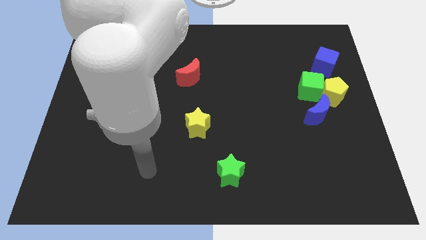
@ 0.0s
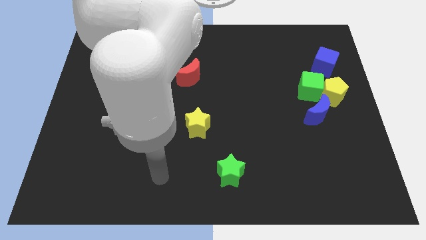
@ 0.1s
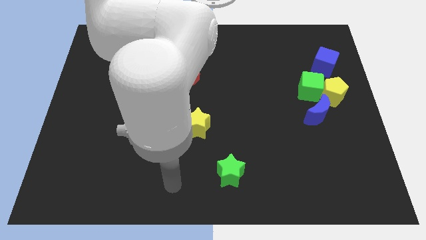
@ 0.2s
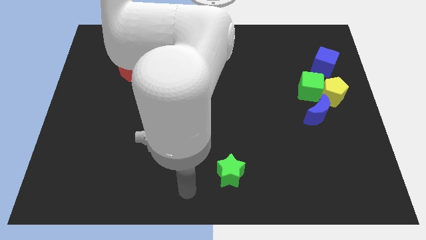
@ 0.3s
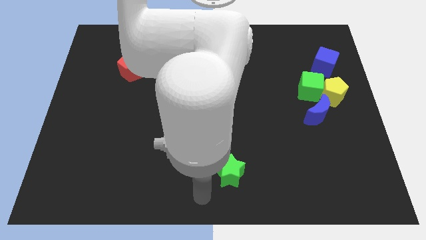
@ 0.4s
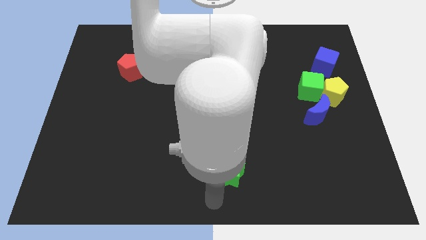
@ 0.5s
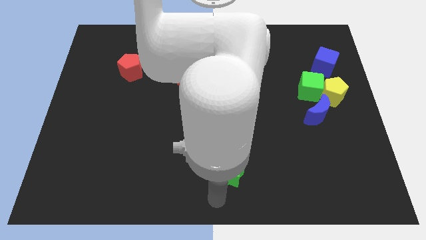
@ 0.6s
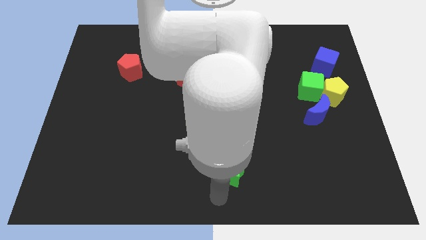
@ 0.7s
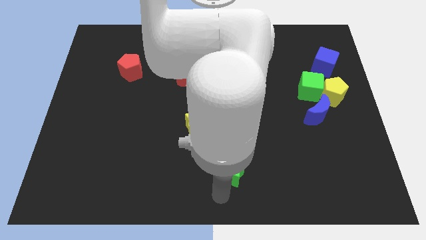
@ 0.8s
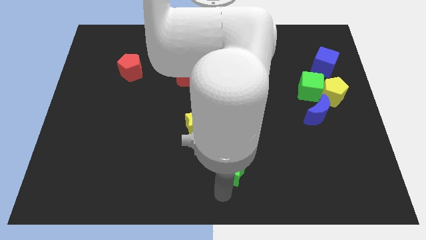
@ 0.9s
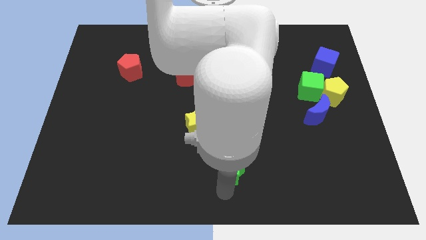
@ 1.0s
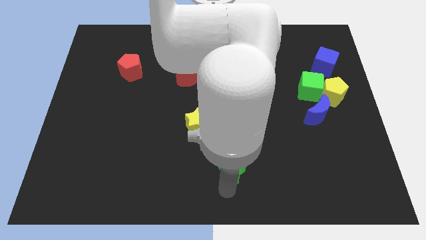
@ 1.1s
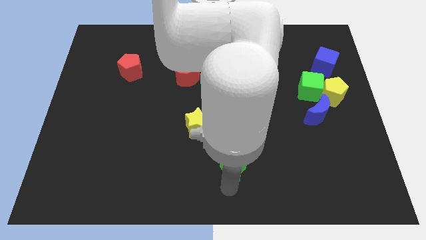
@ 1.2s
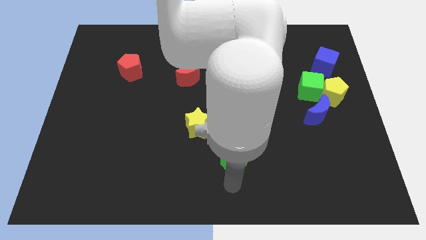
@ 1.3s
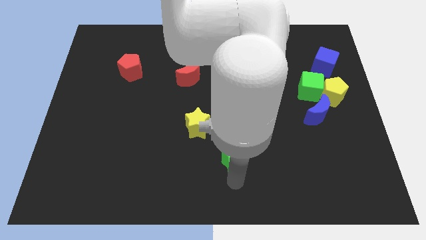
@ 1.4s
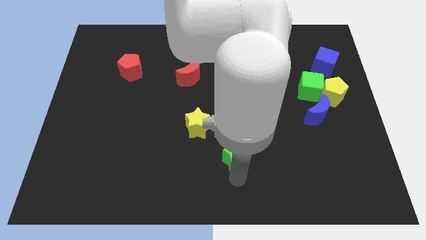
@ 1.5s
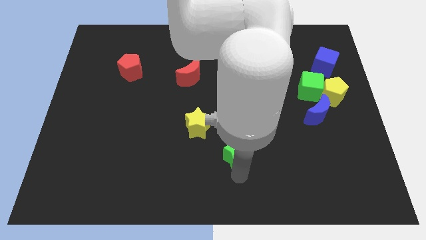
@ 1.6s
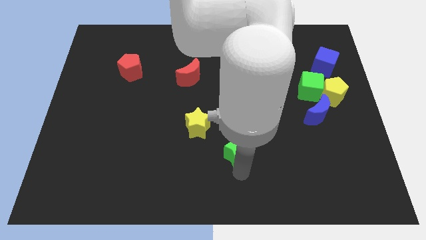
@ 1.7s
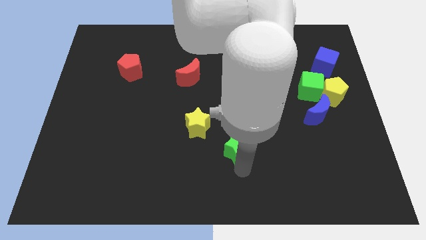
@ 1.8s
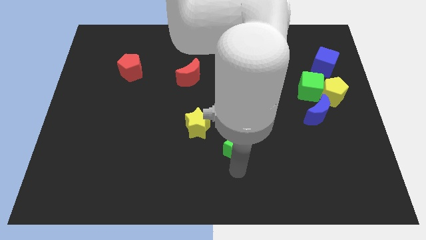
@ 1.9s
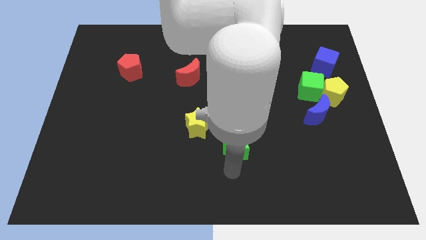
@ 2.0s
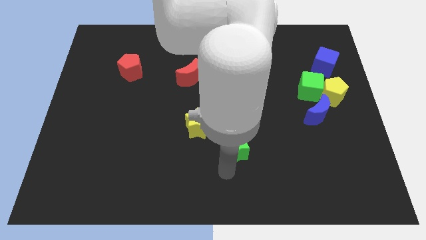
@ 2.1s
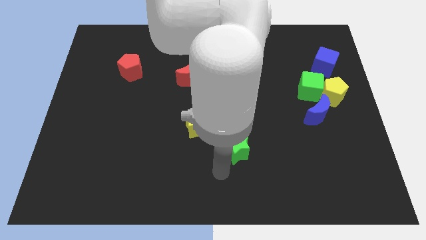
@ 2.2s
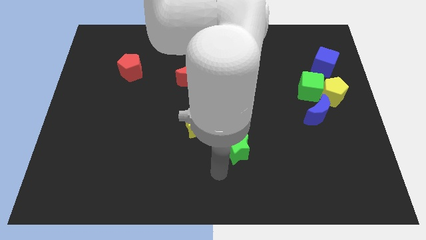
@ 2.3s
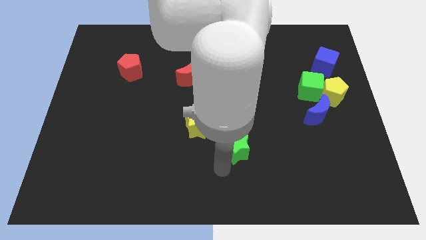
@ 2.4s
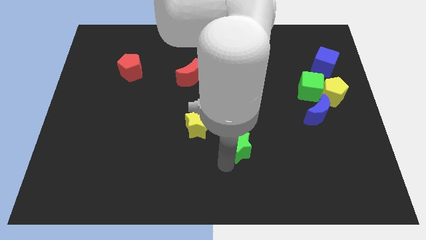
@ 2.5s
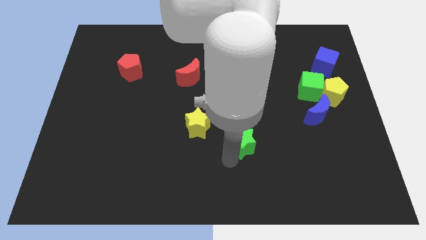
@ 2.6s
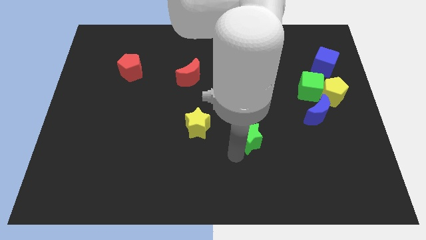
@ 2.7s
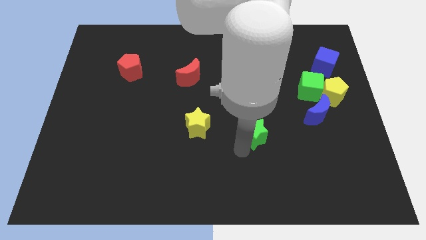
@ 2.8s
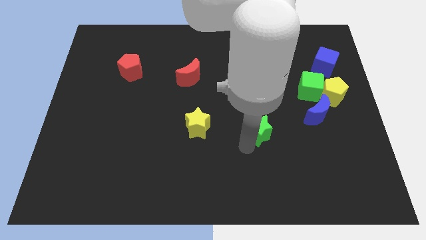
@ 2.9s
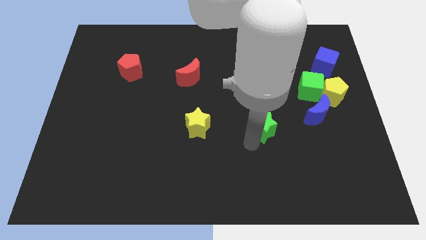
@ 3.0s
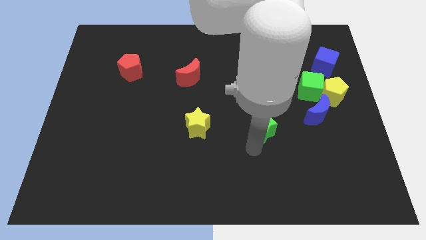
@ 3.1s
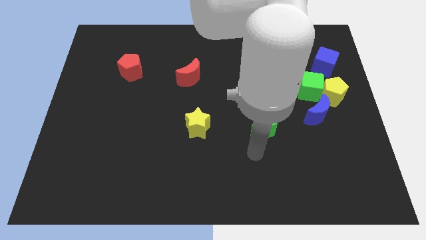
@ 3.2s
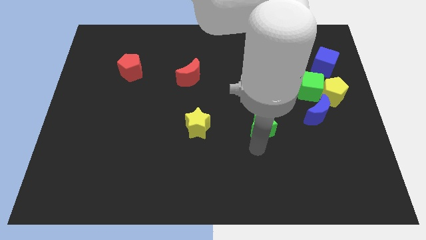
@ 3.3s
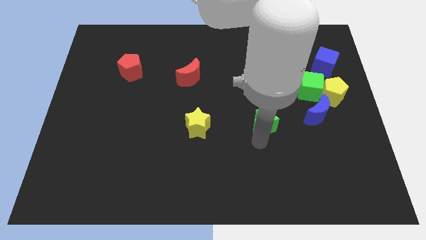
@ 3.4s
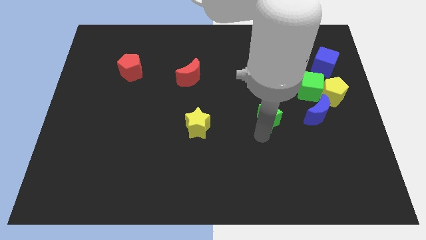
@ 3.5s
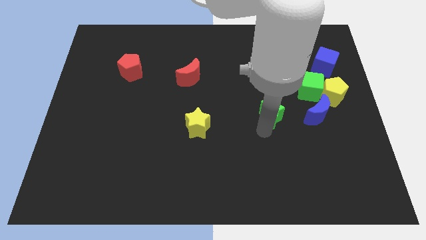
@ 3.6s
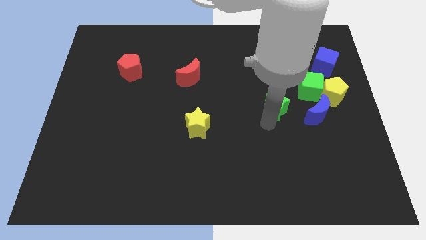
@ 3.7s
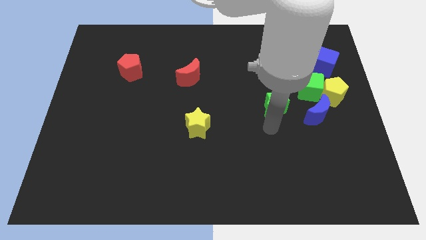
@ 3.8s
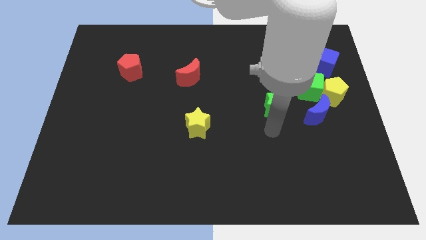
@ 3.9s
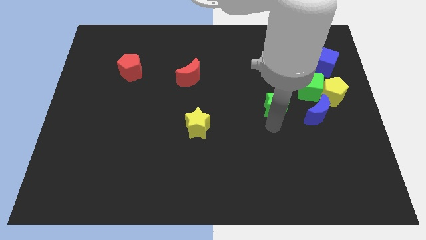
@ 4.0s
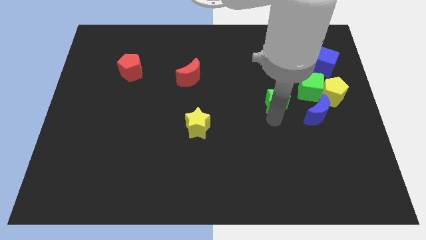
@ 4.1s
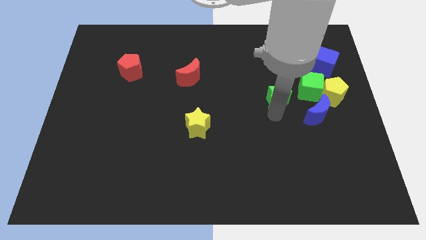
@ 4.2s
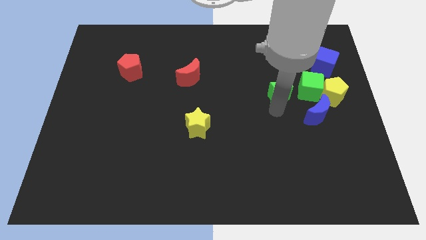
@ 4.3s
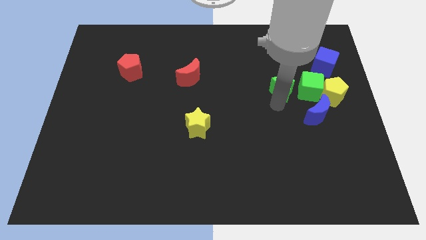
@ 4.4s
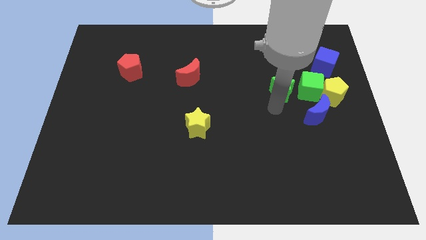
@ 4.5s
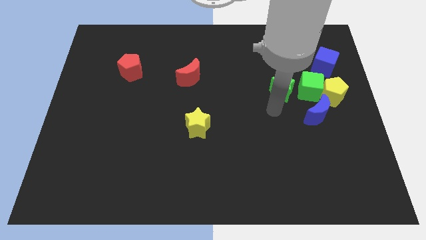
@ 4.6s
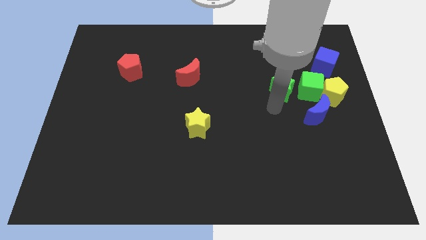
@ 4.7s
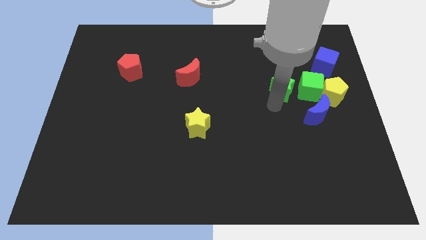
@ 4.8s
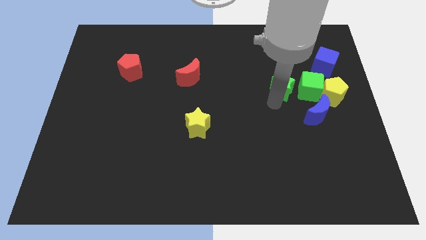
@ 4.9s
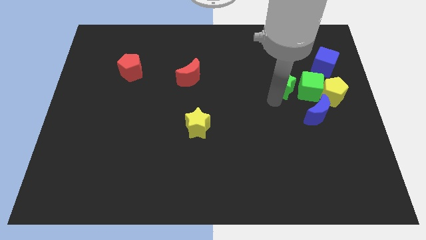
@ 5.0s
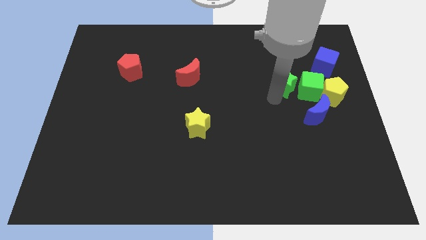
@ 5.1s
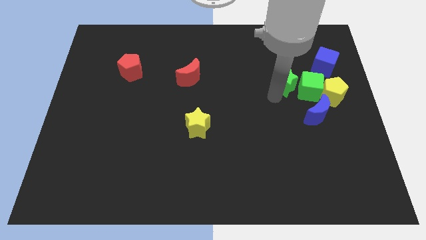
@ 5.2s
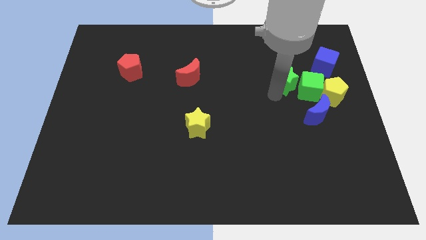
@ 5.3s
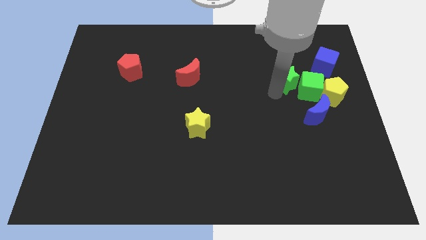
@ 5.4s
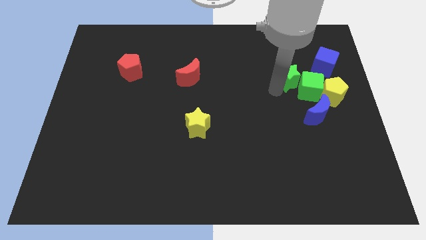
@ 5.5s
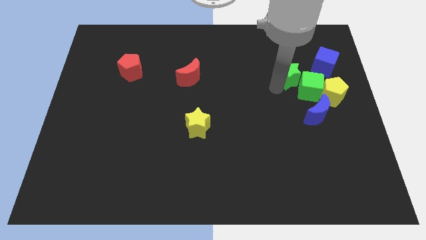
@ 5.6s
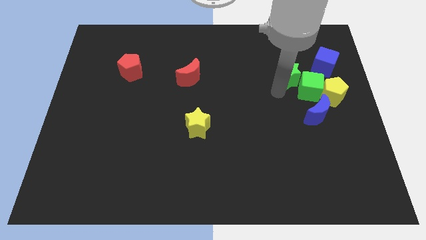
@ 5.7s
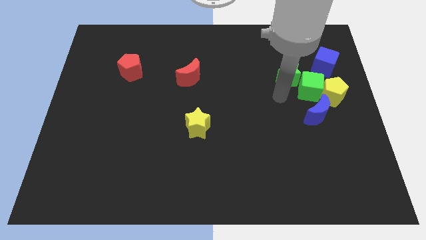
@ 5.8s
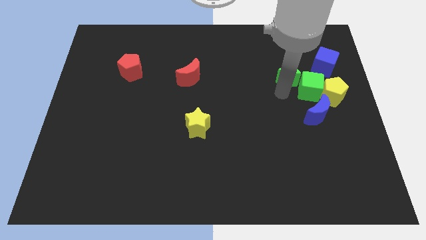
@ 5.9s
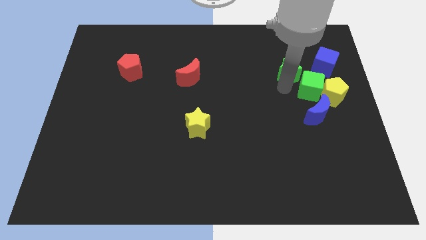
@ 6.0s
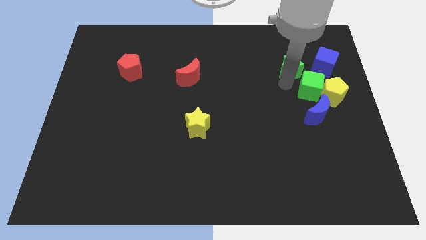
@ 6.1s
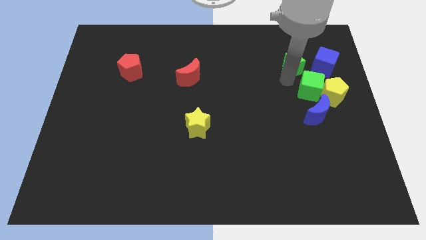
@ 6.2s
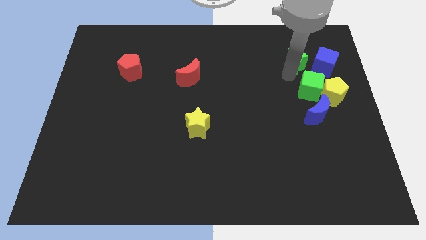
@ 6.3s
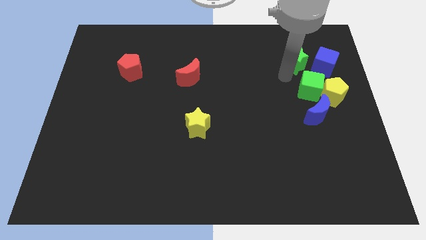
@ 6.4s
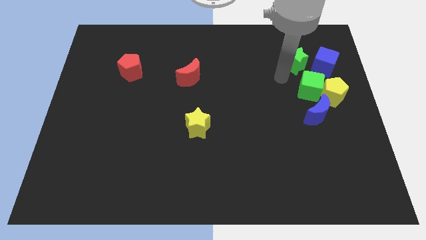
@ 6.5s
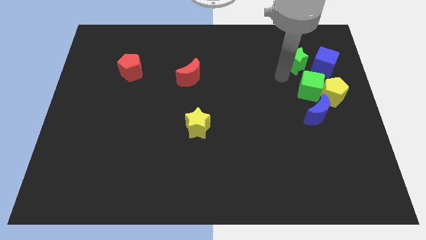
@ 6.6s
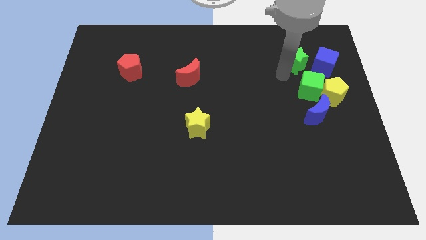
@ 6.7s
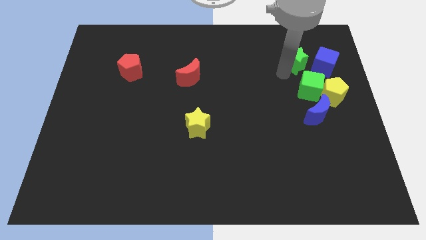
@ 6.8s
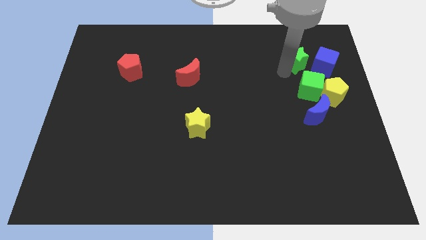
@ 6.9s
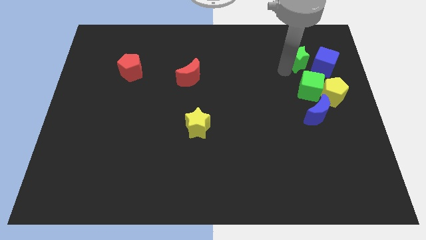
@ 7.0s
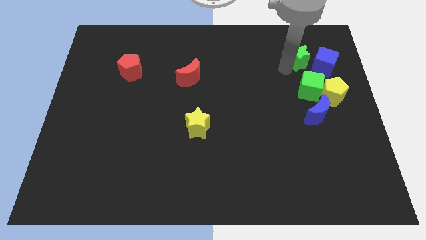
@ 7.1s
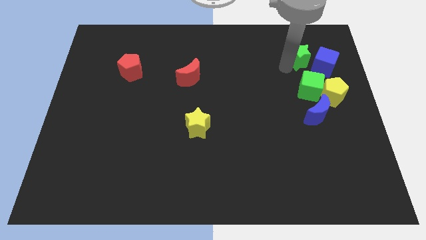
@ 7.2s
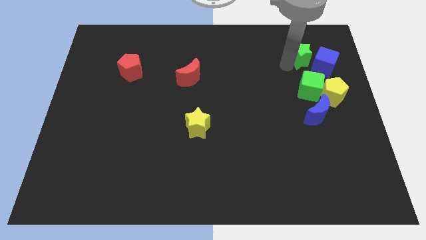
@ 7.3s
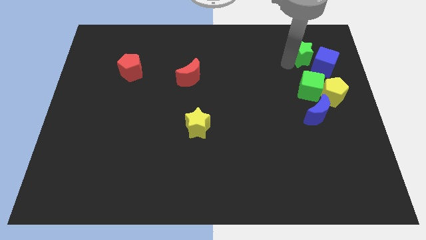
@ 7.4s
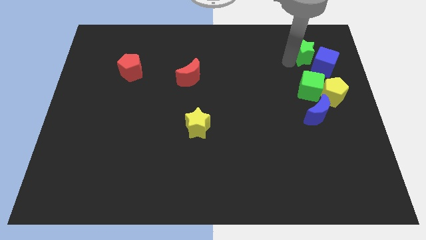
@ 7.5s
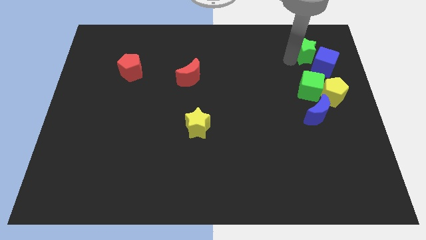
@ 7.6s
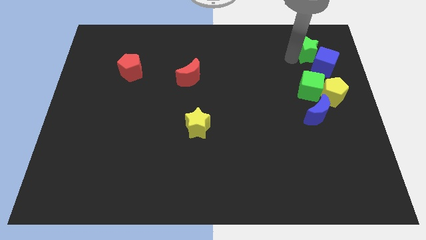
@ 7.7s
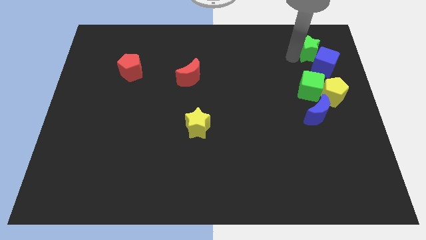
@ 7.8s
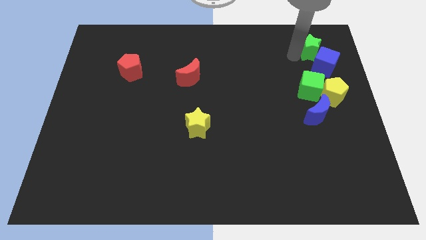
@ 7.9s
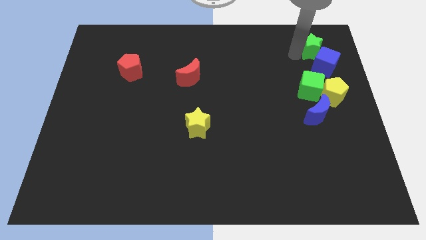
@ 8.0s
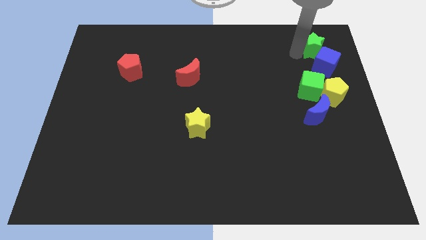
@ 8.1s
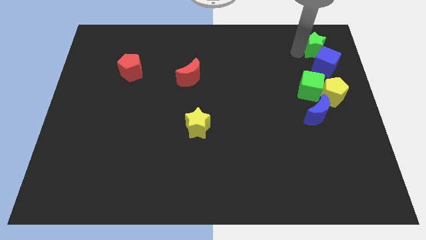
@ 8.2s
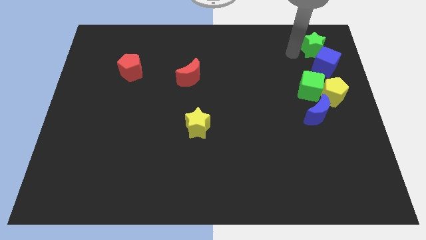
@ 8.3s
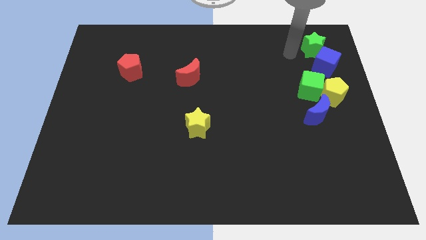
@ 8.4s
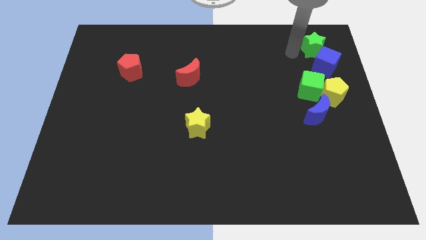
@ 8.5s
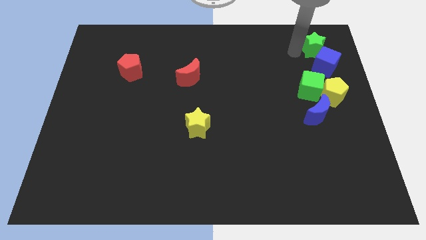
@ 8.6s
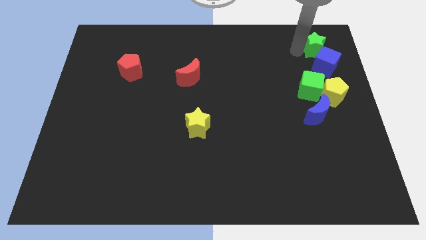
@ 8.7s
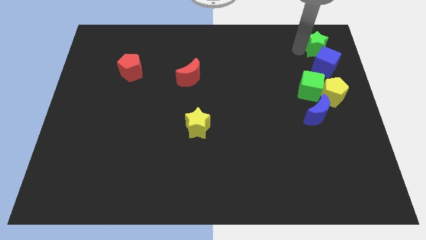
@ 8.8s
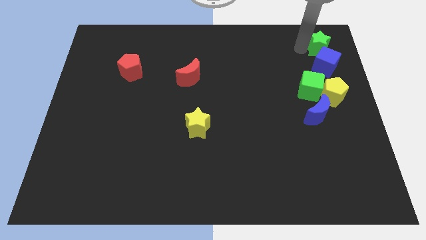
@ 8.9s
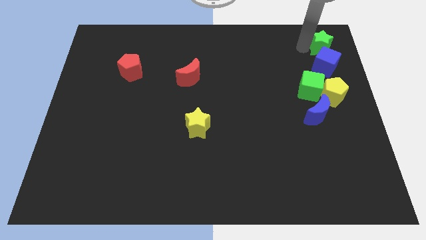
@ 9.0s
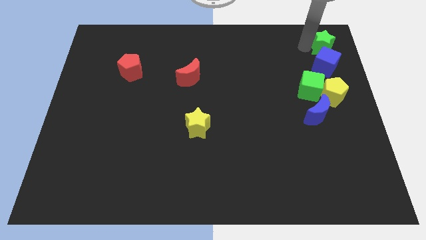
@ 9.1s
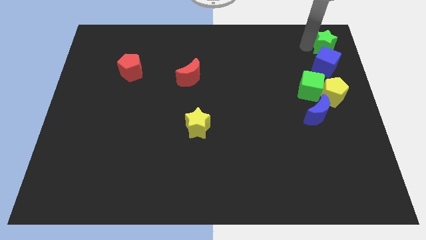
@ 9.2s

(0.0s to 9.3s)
slide the green star to the top right corner
